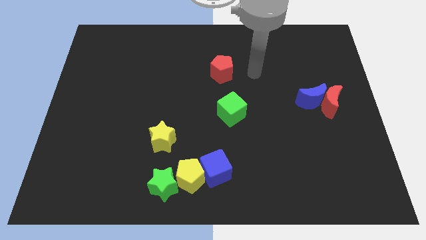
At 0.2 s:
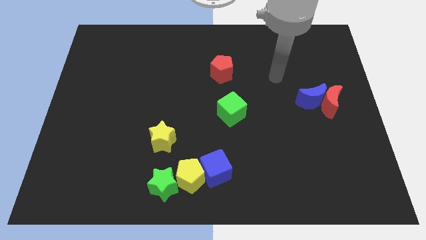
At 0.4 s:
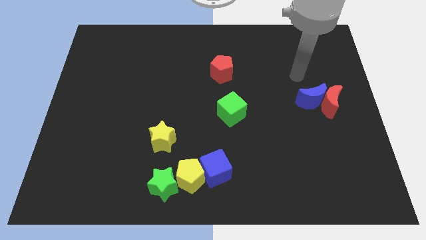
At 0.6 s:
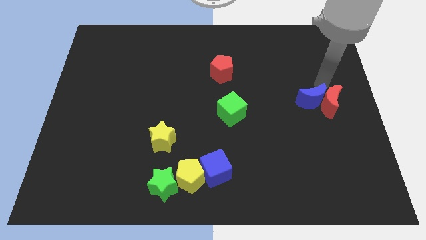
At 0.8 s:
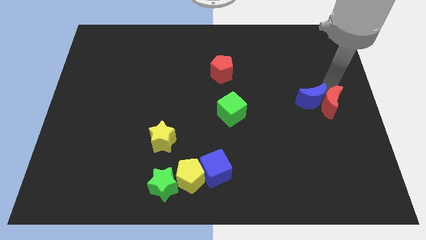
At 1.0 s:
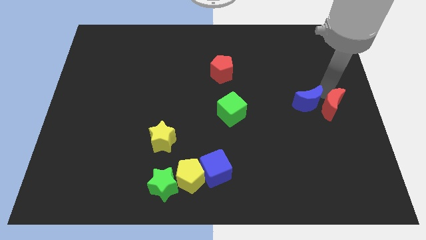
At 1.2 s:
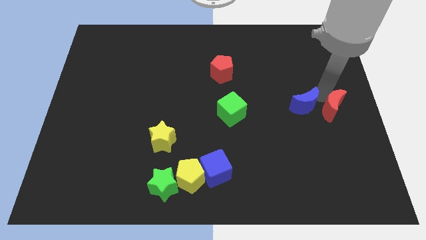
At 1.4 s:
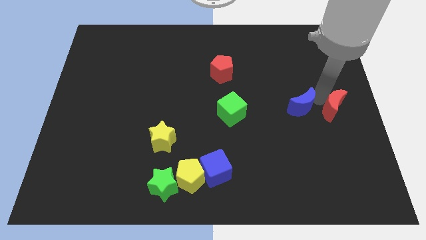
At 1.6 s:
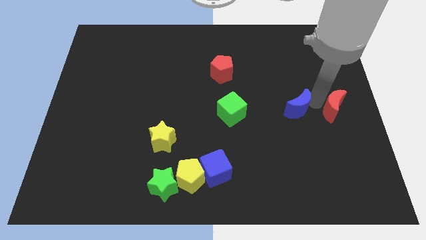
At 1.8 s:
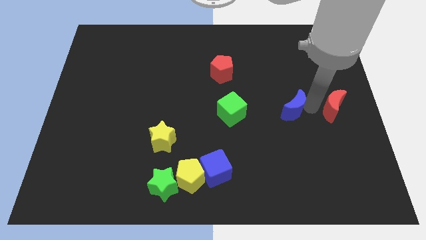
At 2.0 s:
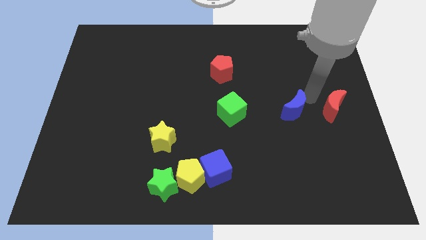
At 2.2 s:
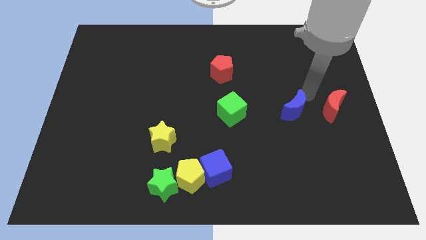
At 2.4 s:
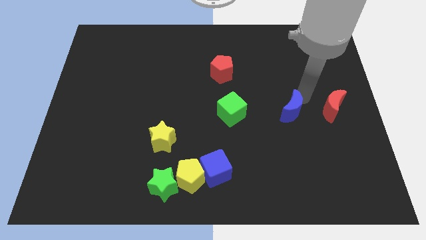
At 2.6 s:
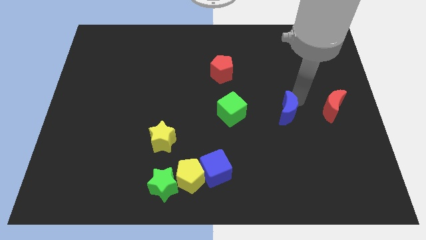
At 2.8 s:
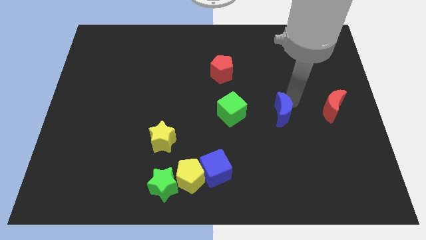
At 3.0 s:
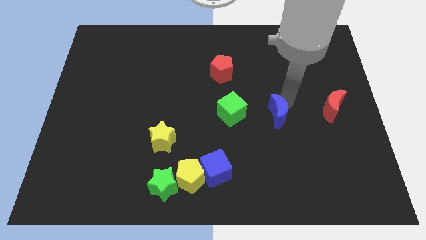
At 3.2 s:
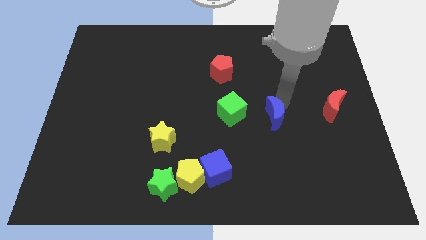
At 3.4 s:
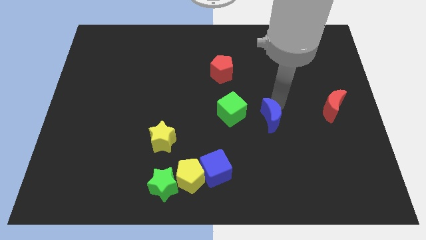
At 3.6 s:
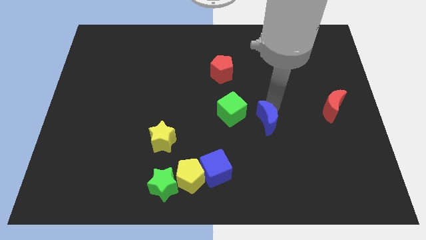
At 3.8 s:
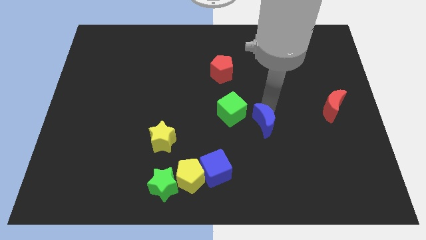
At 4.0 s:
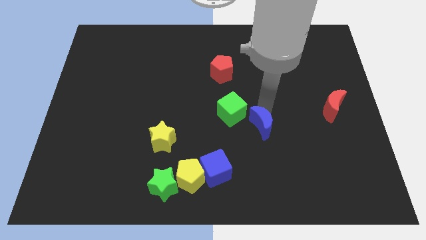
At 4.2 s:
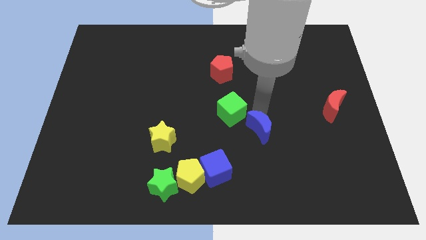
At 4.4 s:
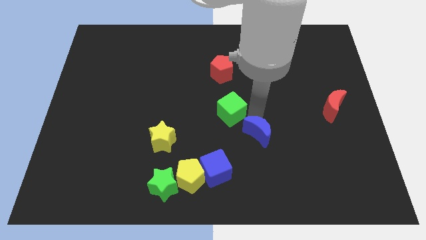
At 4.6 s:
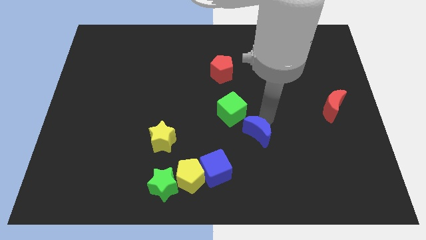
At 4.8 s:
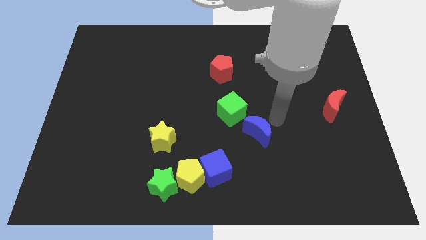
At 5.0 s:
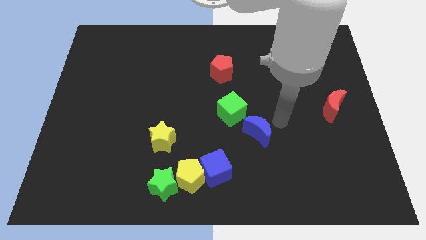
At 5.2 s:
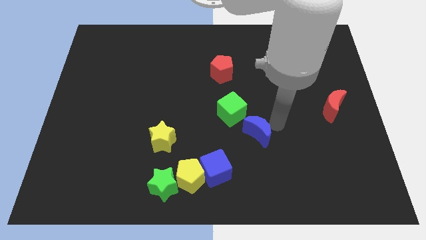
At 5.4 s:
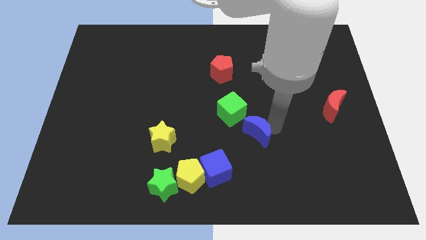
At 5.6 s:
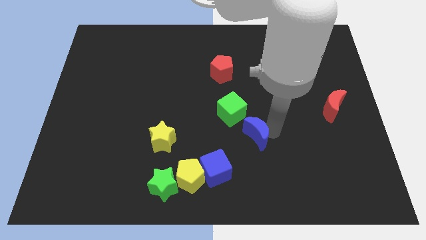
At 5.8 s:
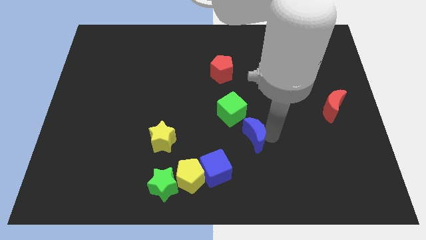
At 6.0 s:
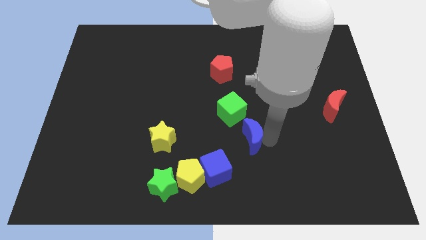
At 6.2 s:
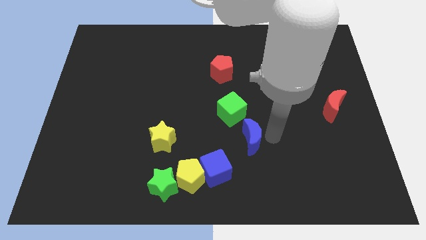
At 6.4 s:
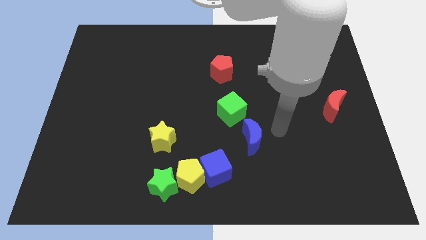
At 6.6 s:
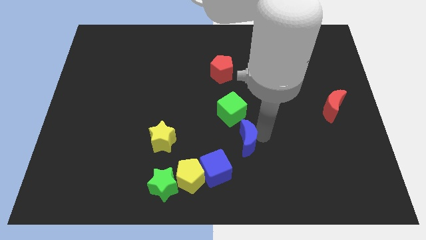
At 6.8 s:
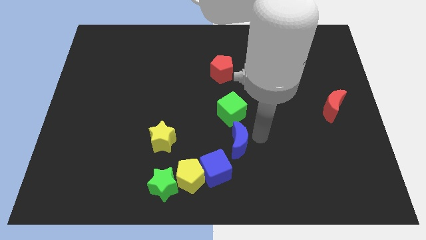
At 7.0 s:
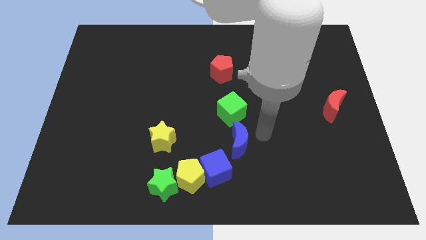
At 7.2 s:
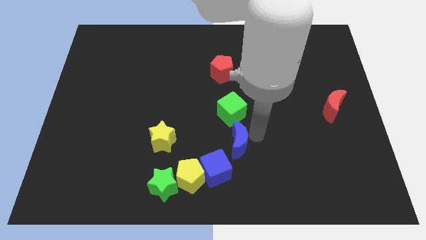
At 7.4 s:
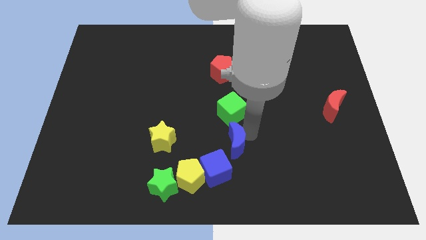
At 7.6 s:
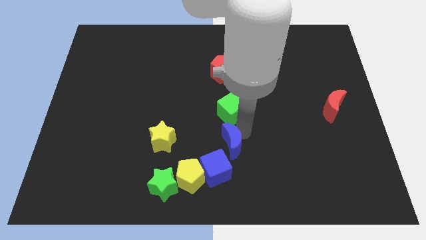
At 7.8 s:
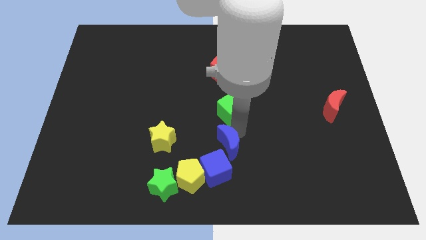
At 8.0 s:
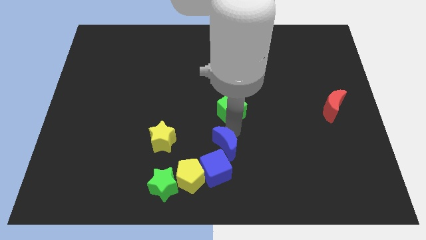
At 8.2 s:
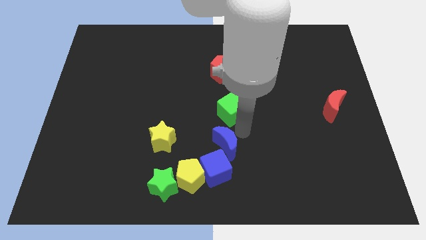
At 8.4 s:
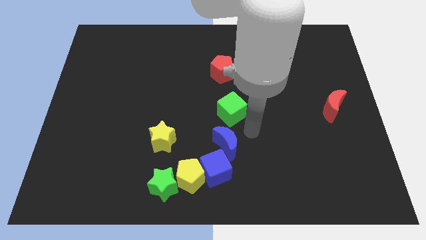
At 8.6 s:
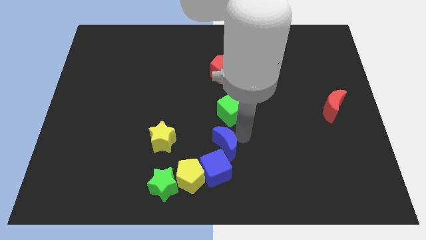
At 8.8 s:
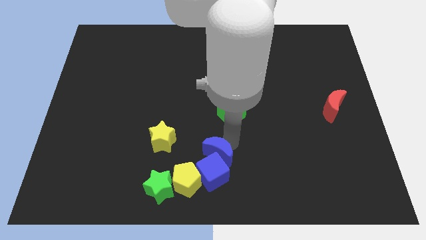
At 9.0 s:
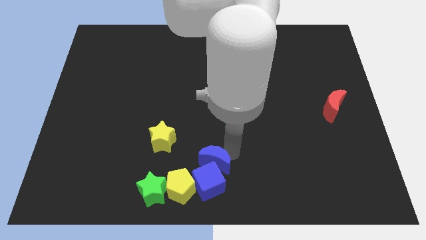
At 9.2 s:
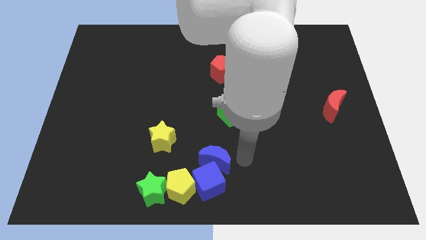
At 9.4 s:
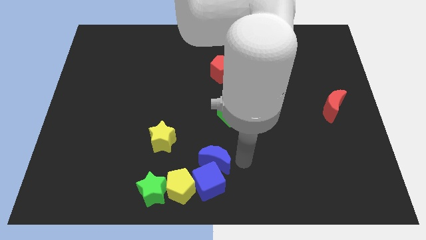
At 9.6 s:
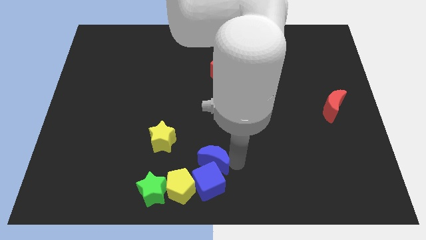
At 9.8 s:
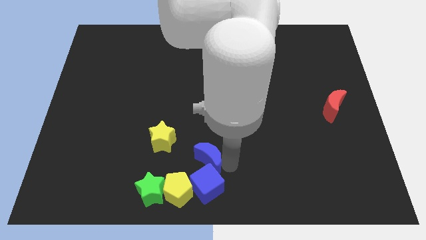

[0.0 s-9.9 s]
move the blue moon diagonally down and to the right of the yellow star

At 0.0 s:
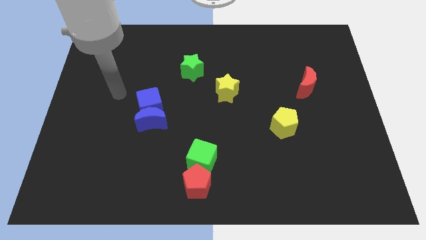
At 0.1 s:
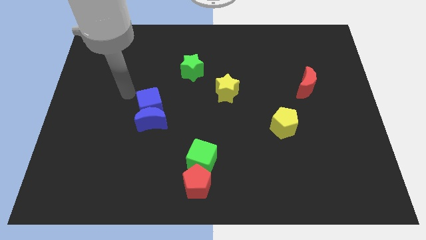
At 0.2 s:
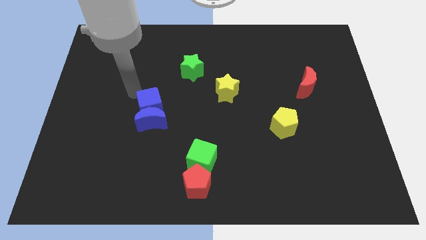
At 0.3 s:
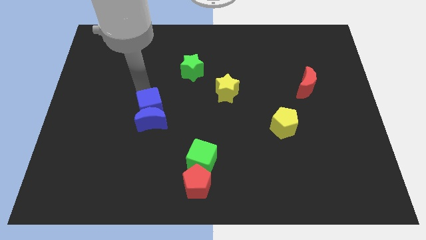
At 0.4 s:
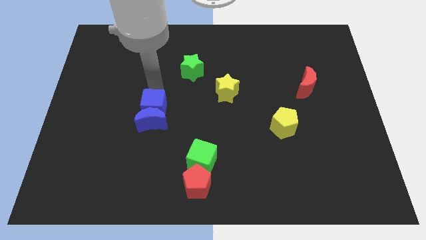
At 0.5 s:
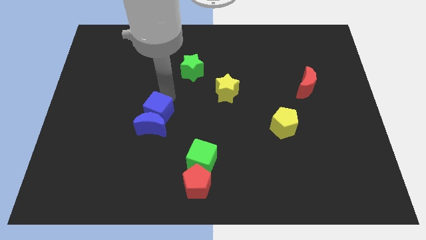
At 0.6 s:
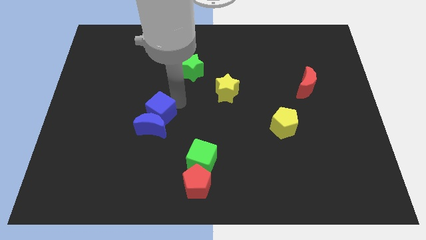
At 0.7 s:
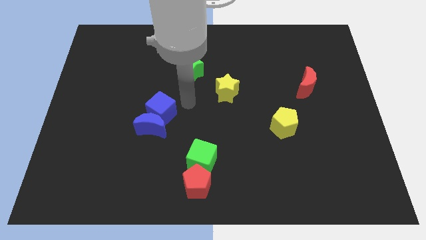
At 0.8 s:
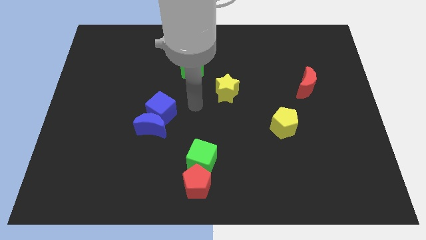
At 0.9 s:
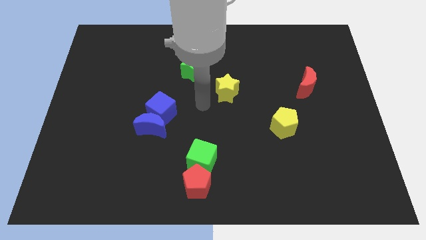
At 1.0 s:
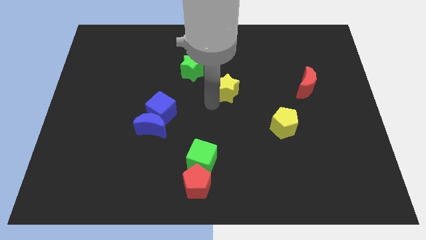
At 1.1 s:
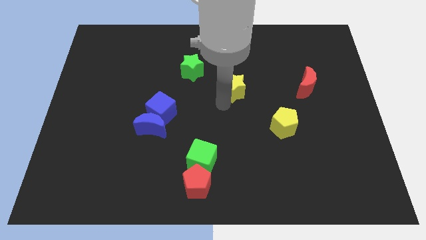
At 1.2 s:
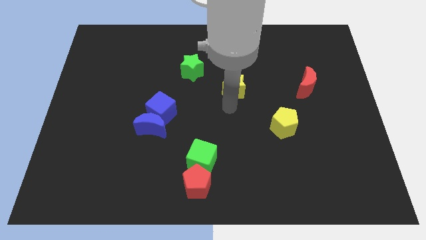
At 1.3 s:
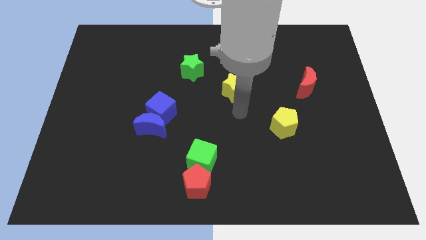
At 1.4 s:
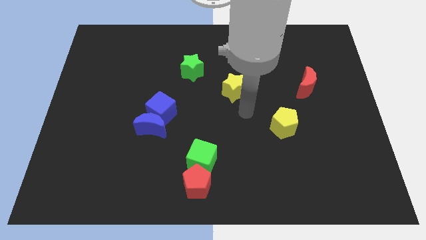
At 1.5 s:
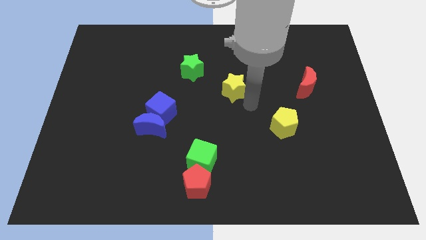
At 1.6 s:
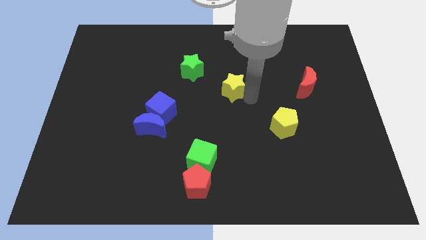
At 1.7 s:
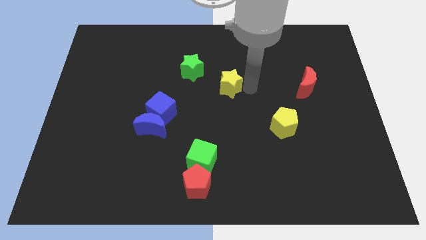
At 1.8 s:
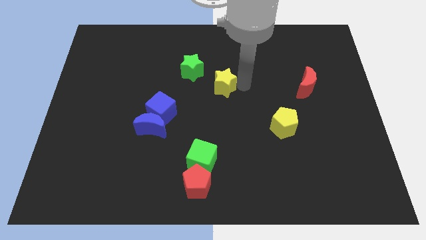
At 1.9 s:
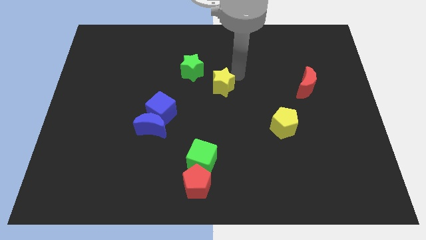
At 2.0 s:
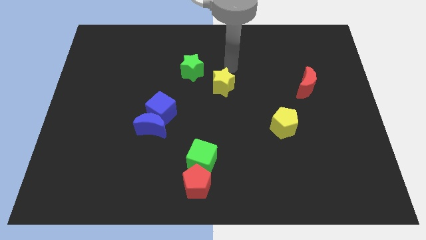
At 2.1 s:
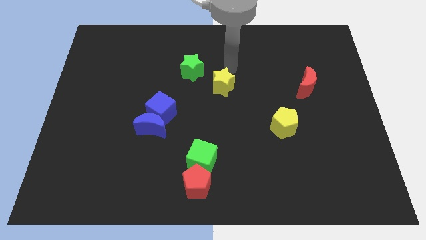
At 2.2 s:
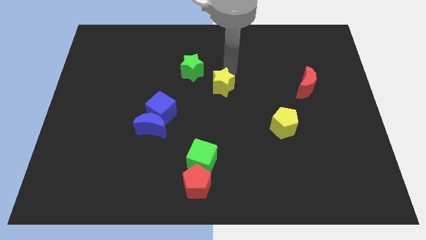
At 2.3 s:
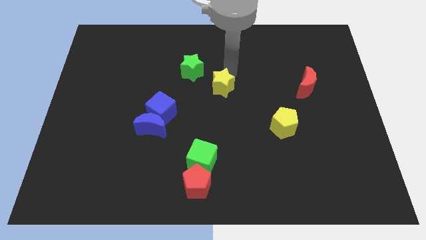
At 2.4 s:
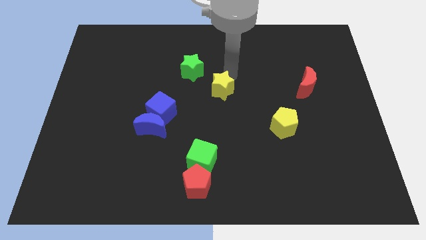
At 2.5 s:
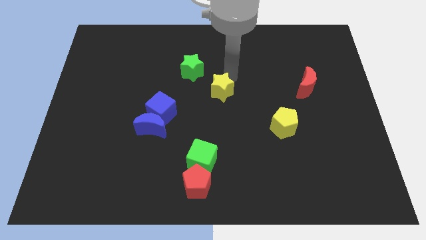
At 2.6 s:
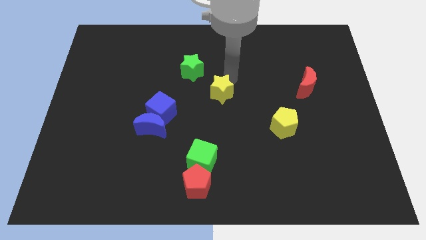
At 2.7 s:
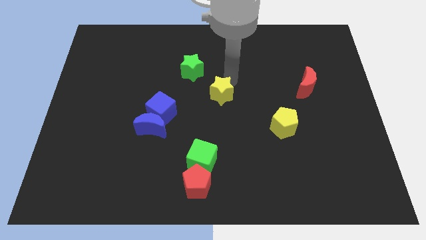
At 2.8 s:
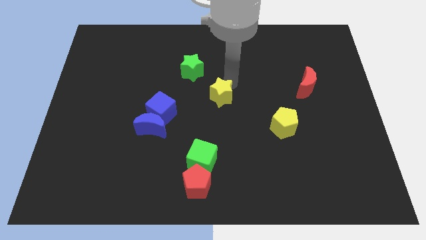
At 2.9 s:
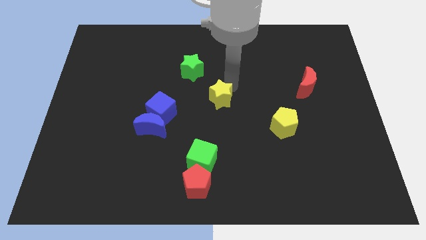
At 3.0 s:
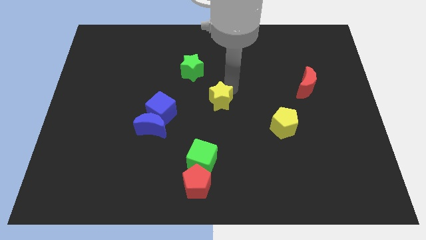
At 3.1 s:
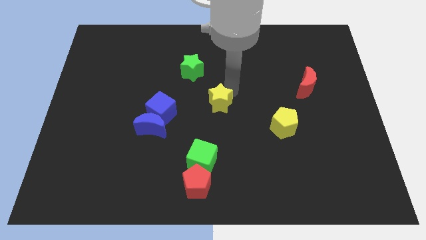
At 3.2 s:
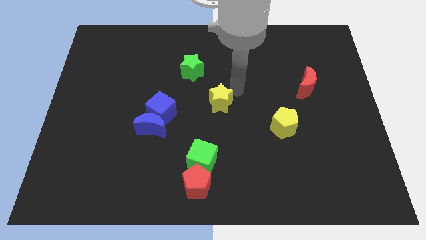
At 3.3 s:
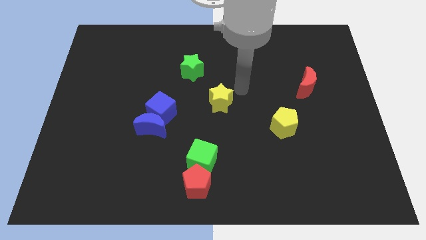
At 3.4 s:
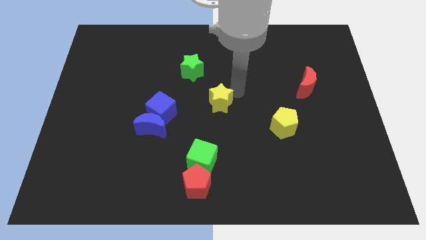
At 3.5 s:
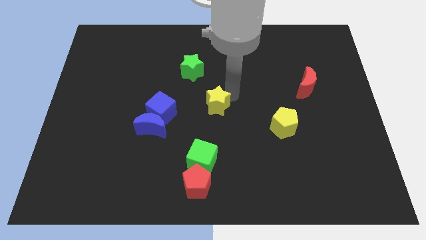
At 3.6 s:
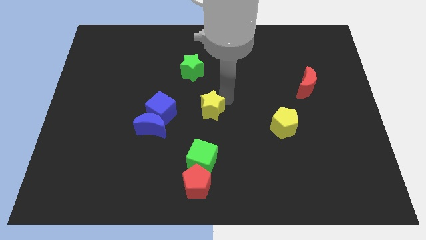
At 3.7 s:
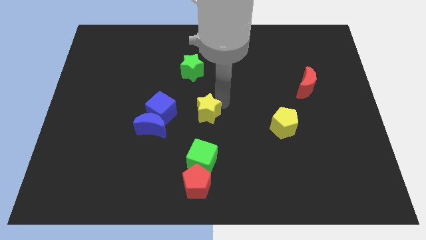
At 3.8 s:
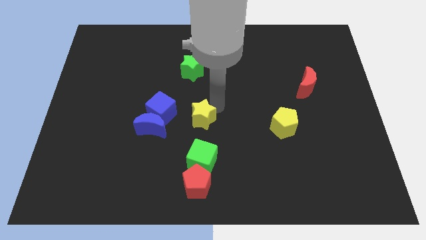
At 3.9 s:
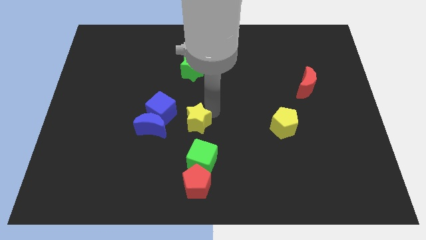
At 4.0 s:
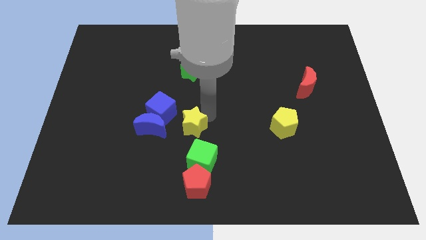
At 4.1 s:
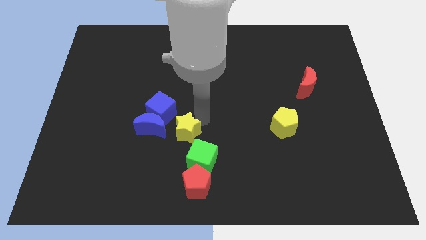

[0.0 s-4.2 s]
slide the yellow star to the bottom right of the blue moon
